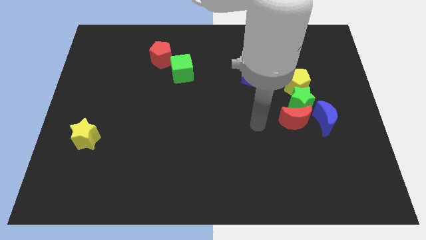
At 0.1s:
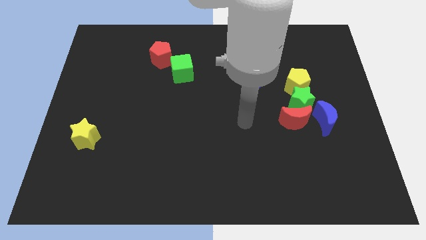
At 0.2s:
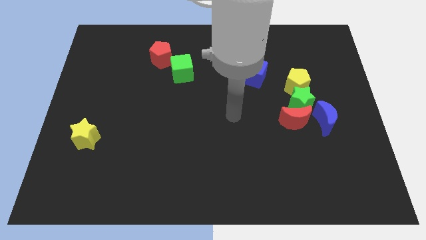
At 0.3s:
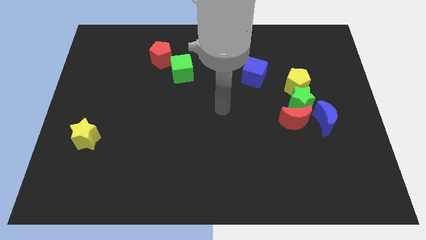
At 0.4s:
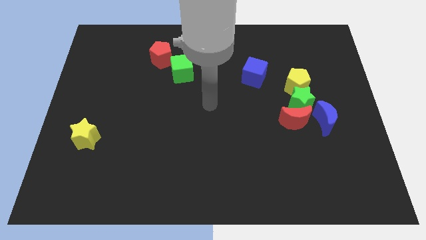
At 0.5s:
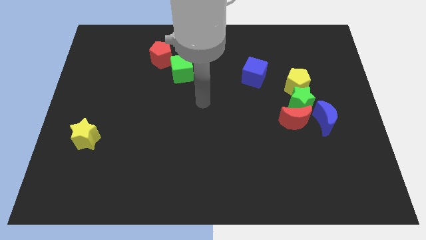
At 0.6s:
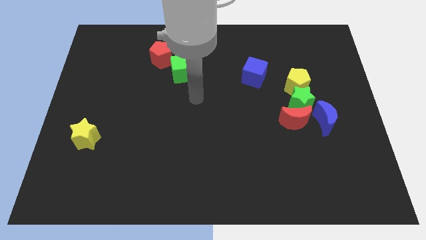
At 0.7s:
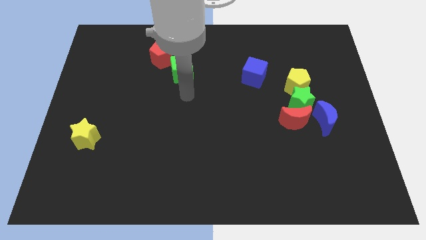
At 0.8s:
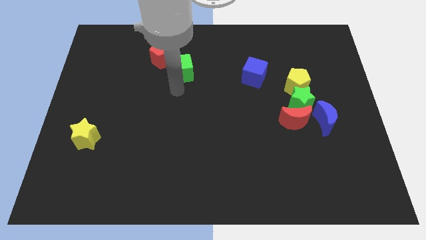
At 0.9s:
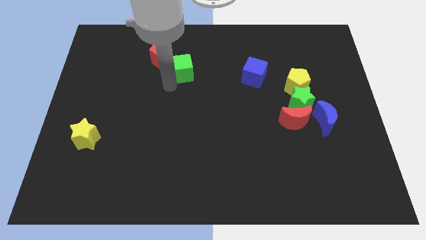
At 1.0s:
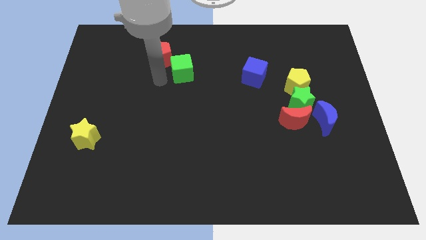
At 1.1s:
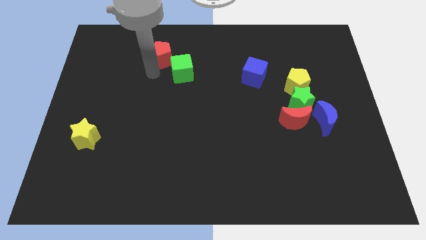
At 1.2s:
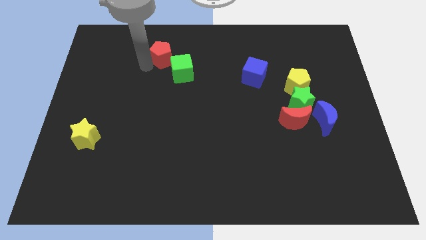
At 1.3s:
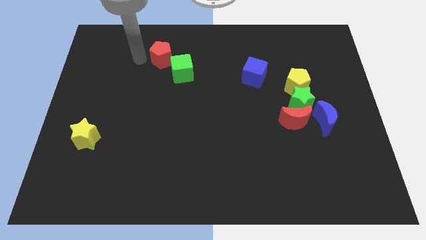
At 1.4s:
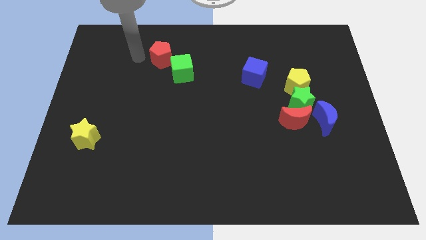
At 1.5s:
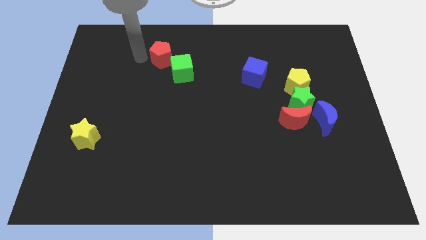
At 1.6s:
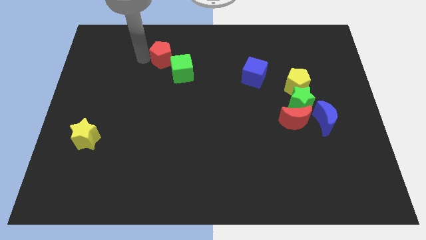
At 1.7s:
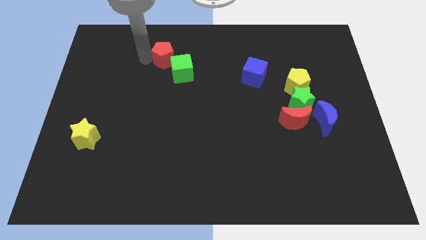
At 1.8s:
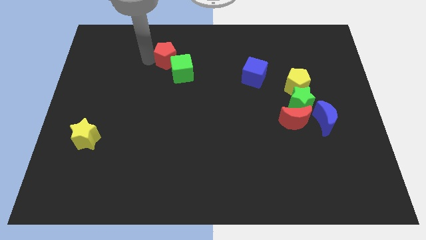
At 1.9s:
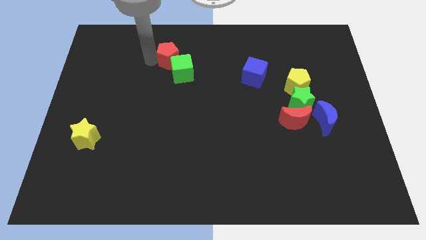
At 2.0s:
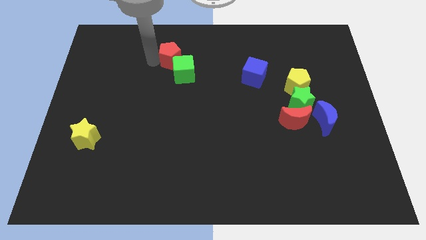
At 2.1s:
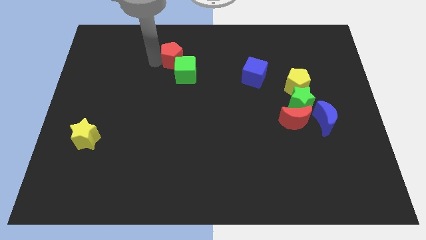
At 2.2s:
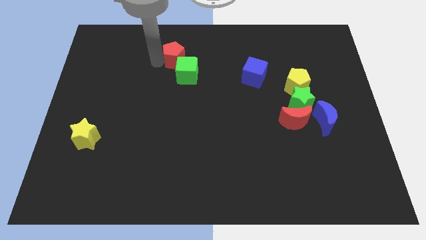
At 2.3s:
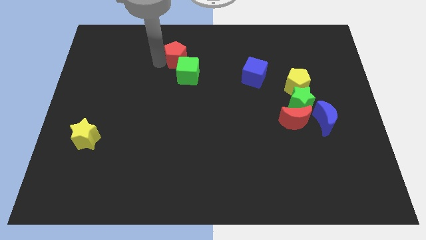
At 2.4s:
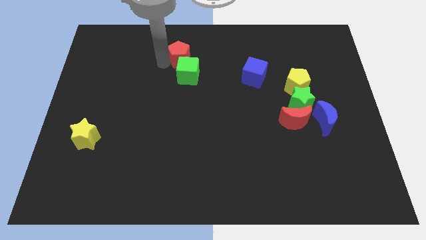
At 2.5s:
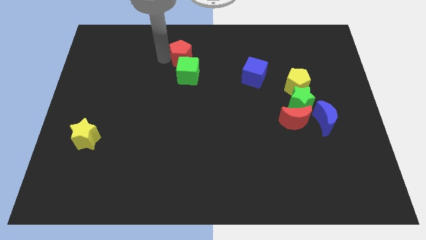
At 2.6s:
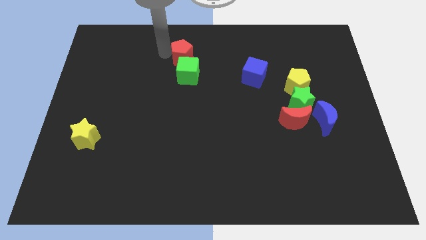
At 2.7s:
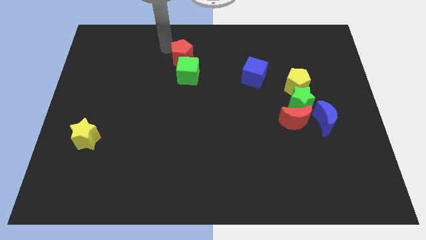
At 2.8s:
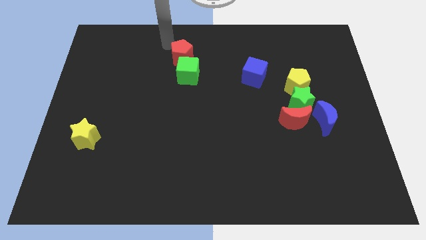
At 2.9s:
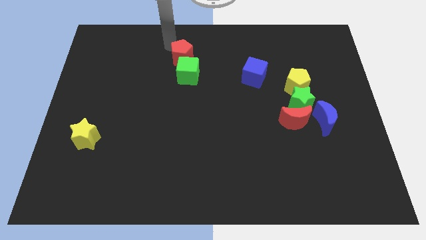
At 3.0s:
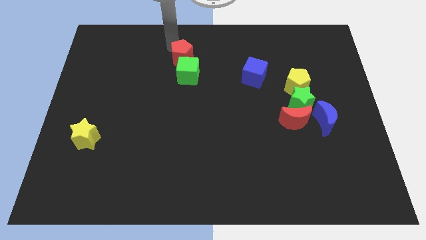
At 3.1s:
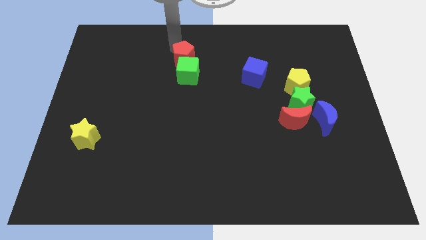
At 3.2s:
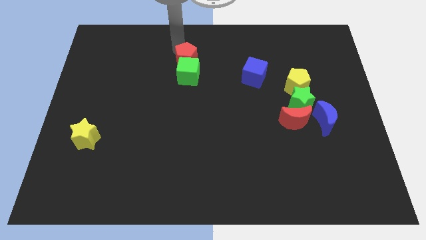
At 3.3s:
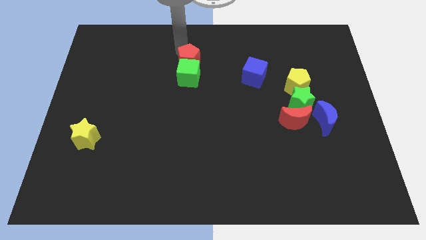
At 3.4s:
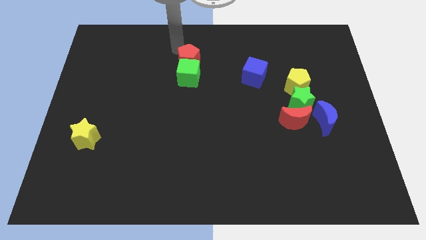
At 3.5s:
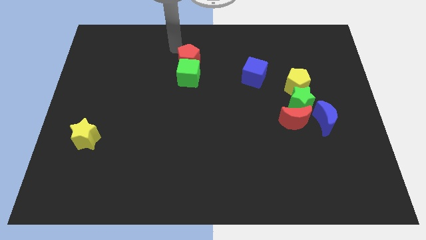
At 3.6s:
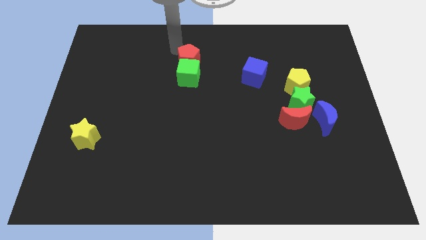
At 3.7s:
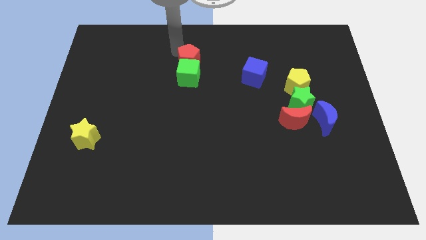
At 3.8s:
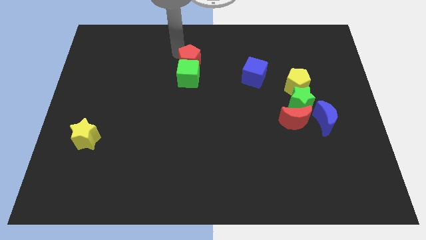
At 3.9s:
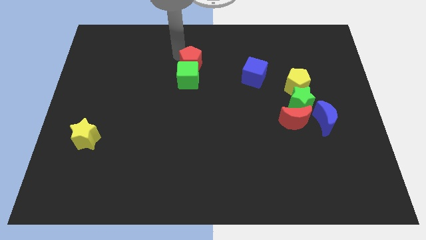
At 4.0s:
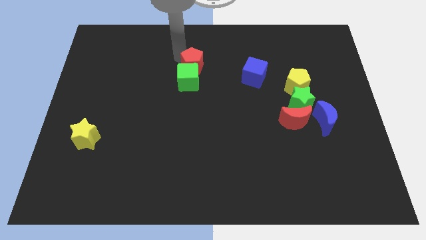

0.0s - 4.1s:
slightly slide the red pentagon downwards and to the right

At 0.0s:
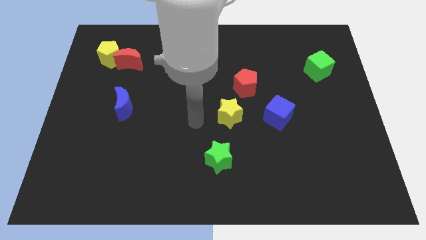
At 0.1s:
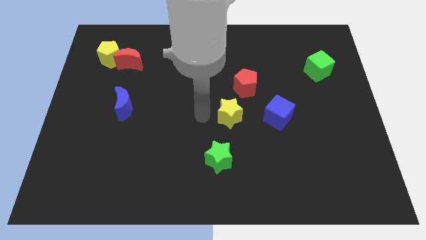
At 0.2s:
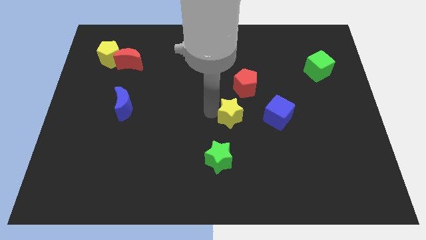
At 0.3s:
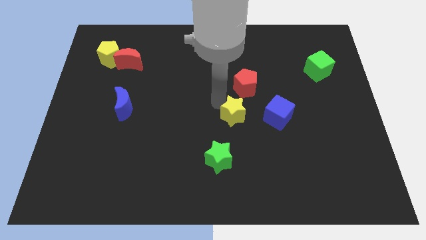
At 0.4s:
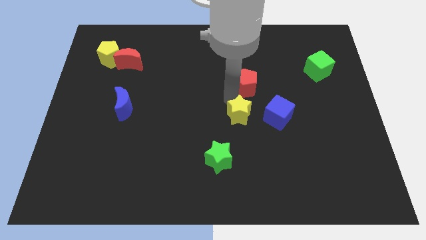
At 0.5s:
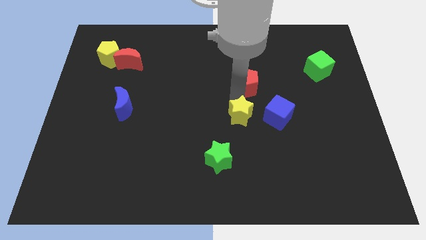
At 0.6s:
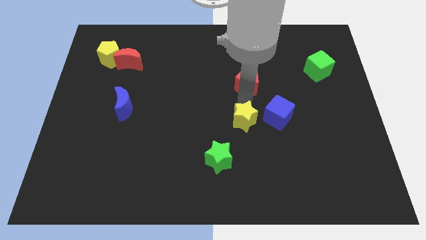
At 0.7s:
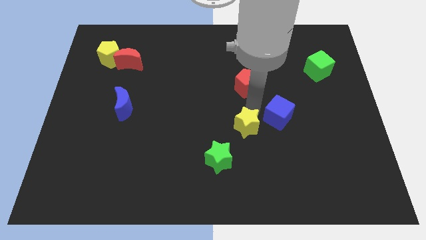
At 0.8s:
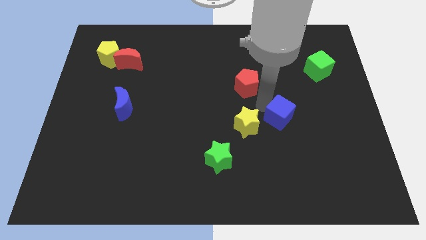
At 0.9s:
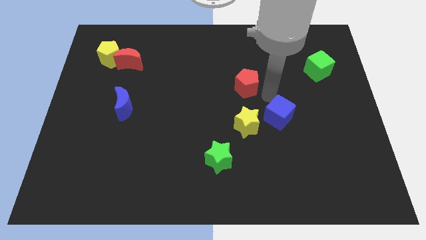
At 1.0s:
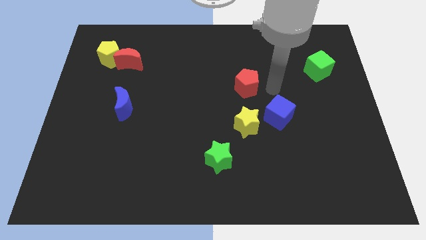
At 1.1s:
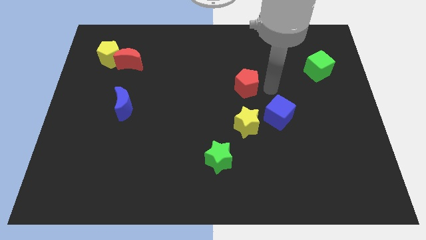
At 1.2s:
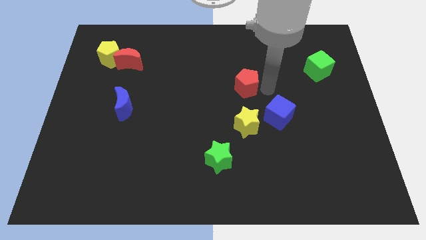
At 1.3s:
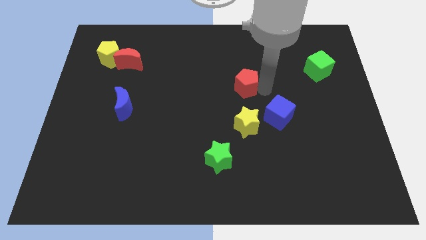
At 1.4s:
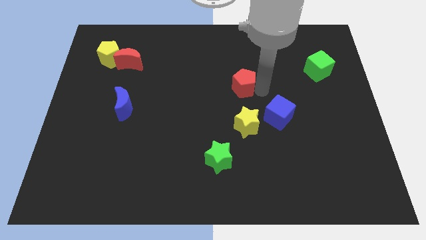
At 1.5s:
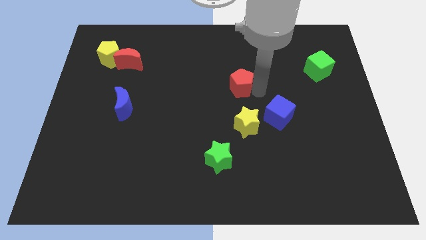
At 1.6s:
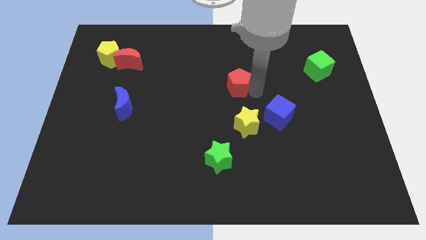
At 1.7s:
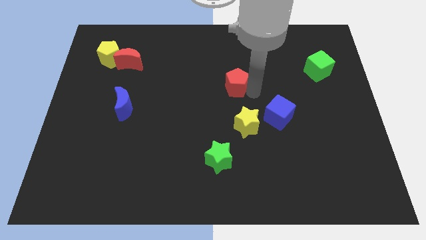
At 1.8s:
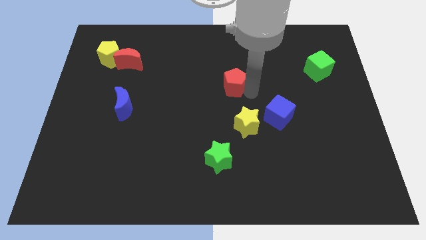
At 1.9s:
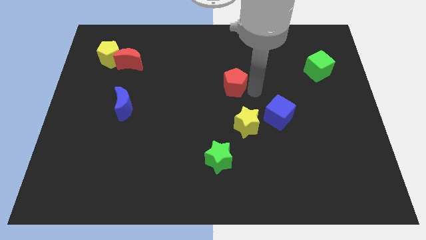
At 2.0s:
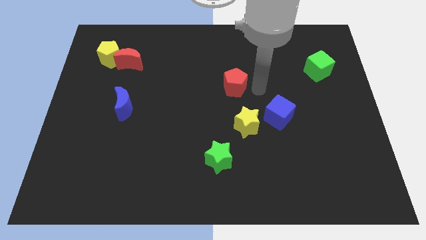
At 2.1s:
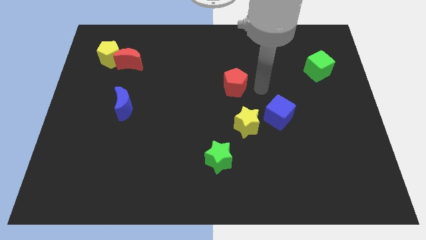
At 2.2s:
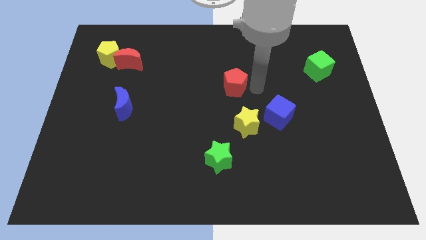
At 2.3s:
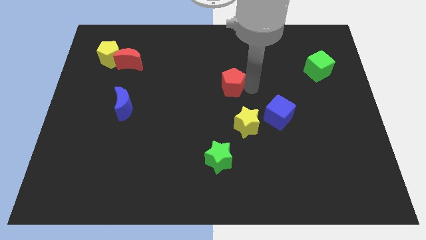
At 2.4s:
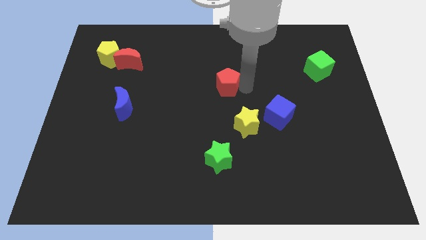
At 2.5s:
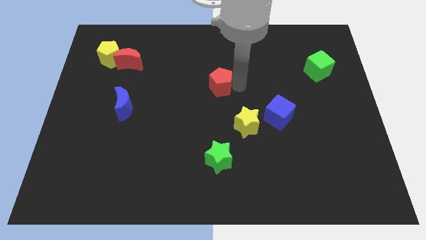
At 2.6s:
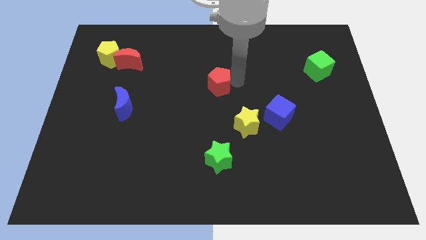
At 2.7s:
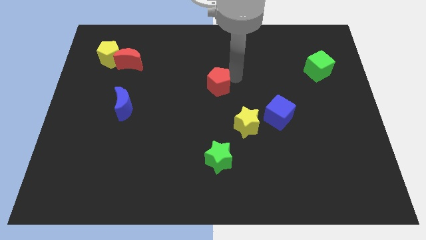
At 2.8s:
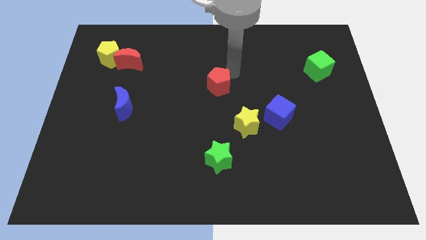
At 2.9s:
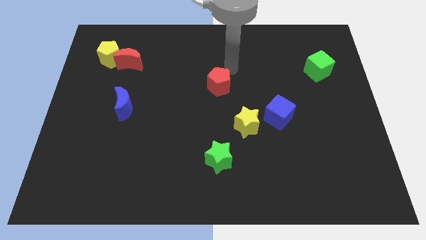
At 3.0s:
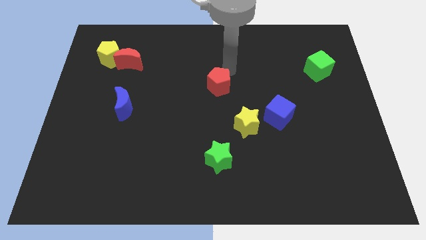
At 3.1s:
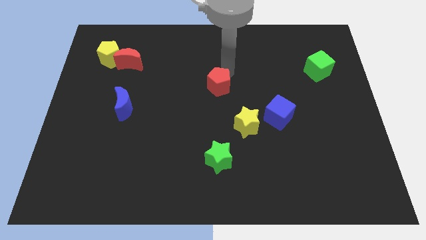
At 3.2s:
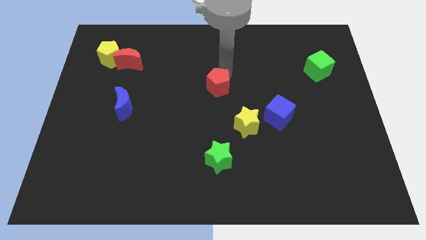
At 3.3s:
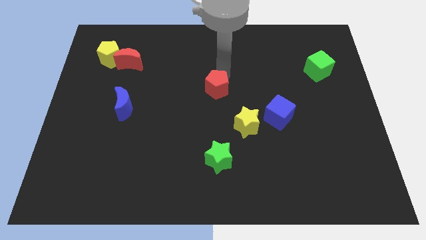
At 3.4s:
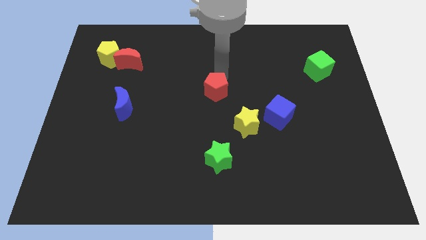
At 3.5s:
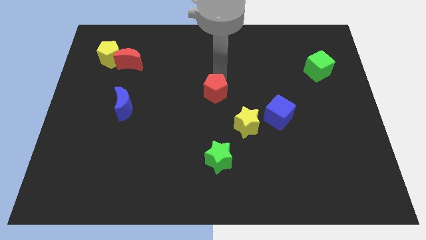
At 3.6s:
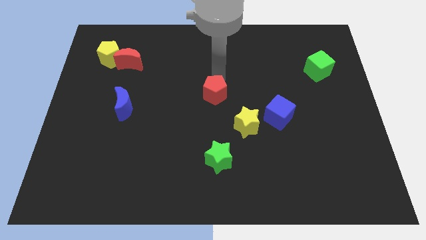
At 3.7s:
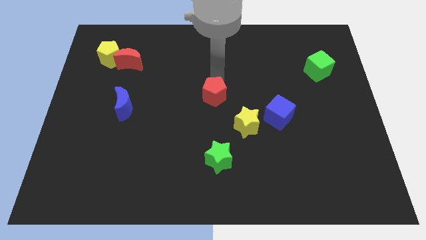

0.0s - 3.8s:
slightly slide the red pentagon down and left diagonally
